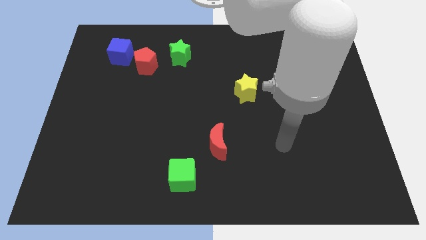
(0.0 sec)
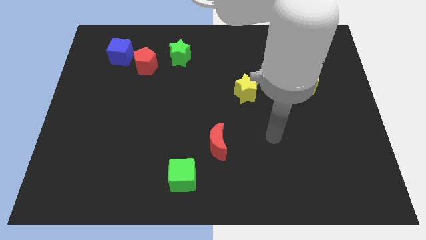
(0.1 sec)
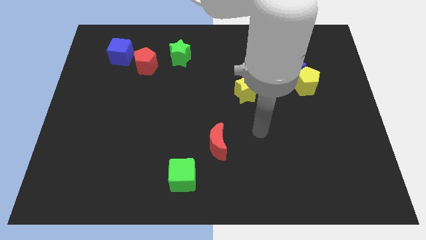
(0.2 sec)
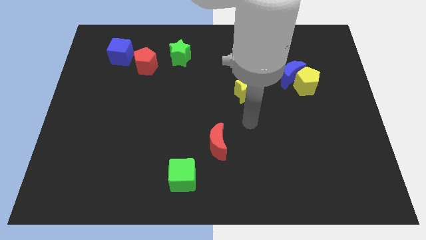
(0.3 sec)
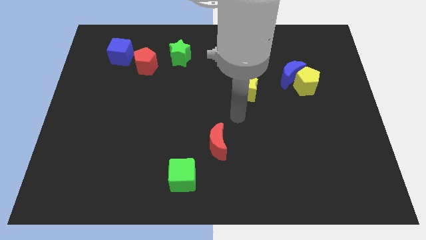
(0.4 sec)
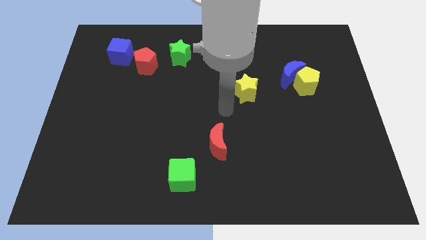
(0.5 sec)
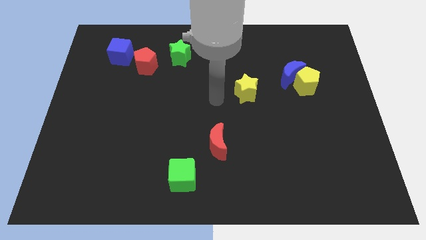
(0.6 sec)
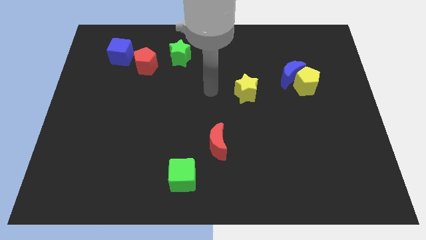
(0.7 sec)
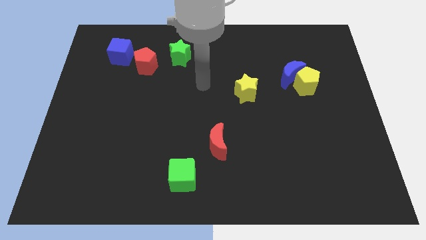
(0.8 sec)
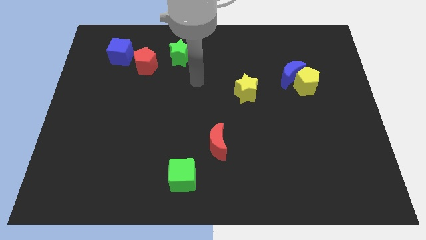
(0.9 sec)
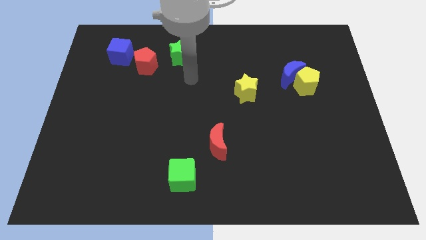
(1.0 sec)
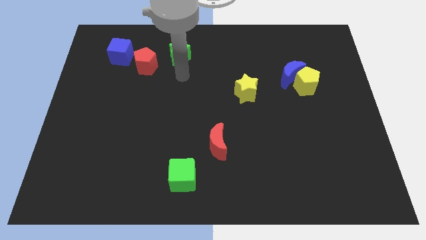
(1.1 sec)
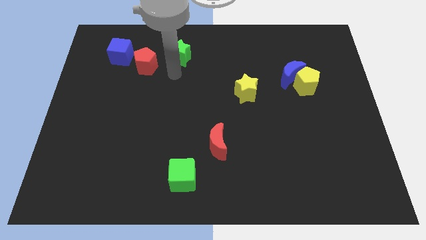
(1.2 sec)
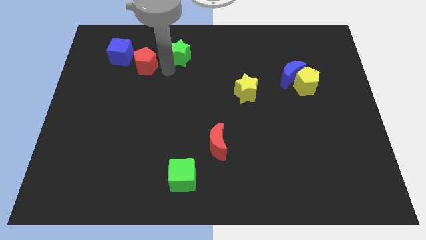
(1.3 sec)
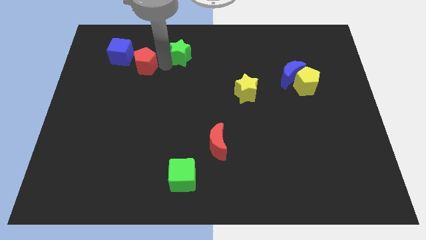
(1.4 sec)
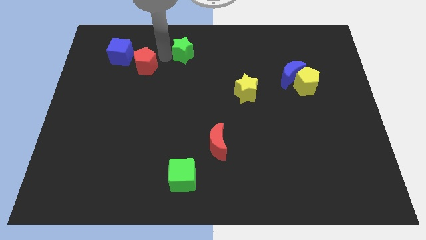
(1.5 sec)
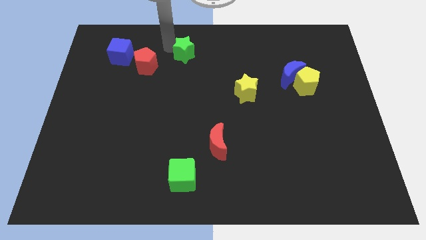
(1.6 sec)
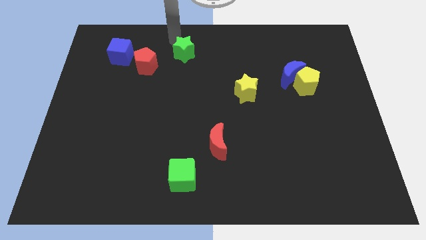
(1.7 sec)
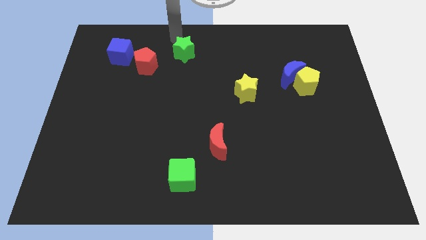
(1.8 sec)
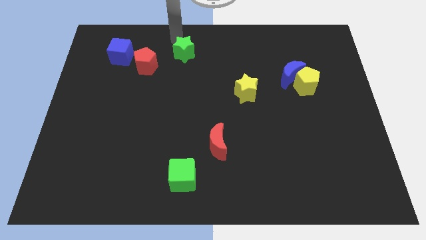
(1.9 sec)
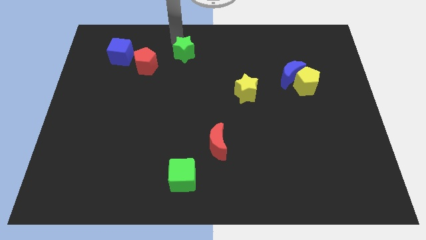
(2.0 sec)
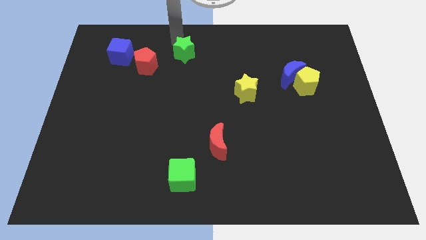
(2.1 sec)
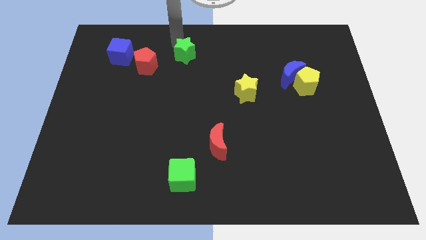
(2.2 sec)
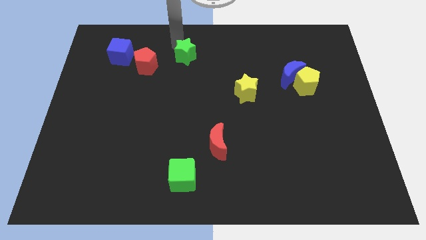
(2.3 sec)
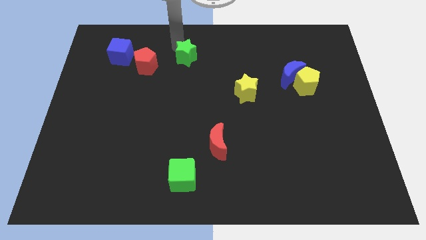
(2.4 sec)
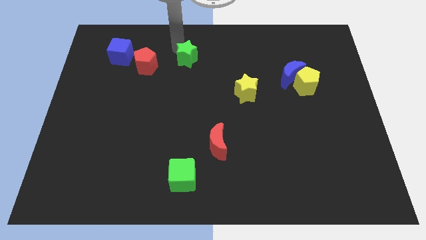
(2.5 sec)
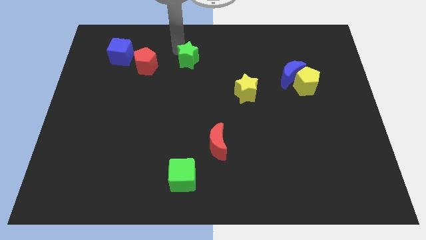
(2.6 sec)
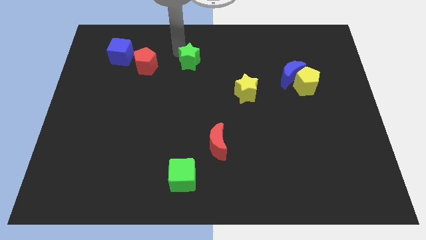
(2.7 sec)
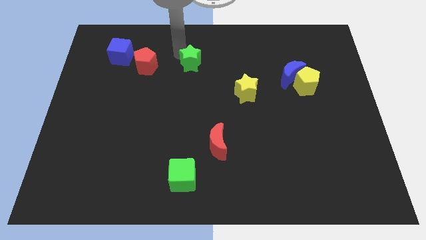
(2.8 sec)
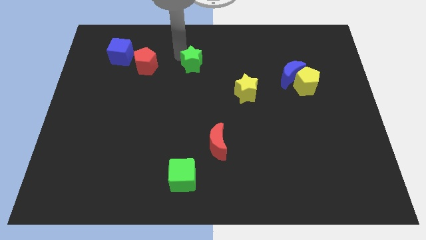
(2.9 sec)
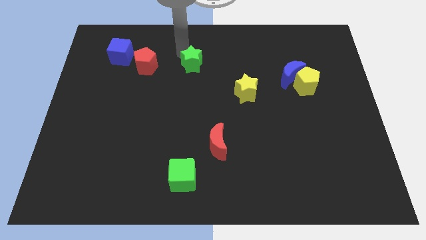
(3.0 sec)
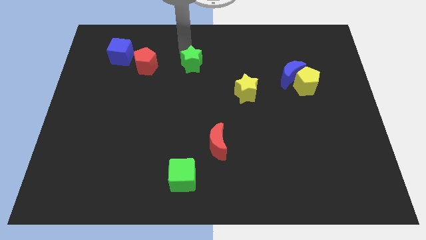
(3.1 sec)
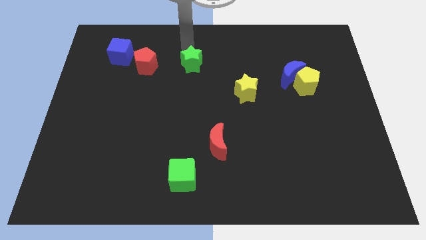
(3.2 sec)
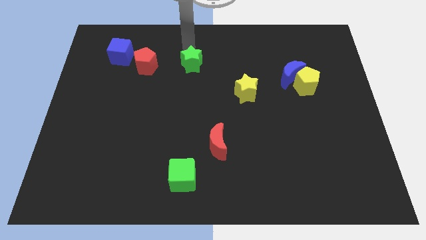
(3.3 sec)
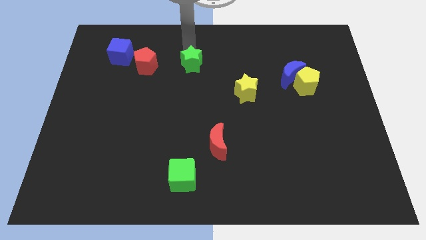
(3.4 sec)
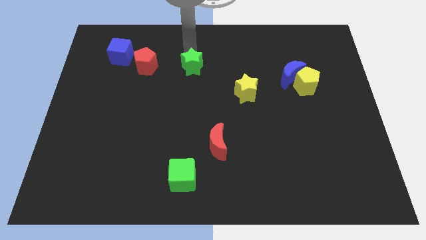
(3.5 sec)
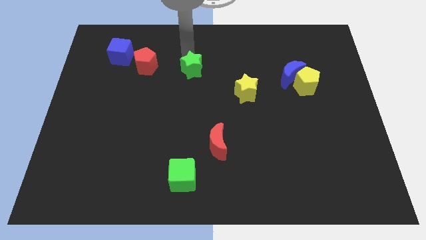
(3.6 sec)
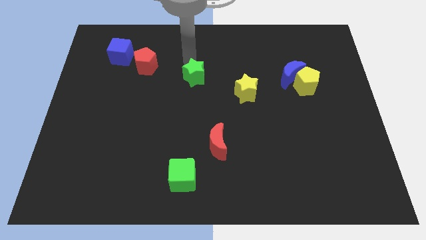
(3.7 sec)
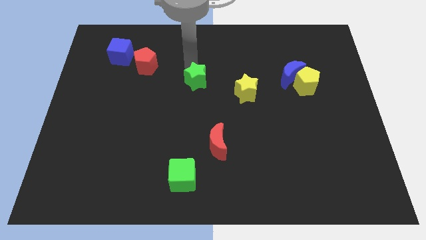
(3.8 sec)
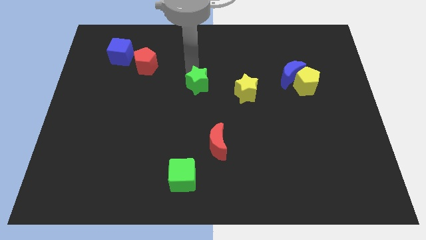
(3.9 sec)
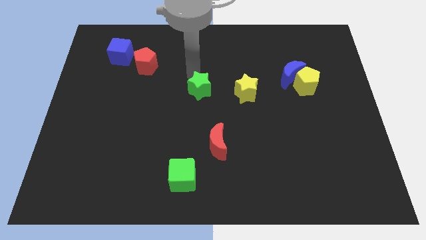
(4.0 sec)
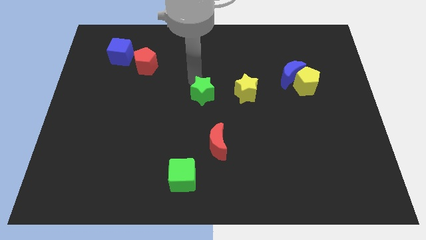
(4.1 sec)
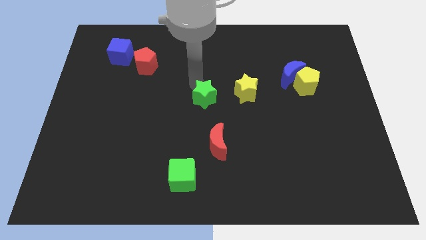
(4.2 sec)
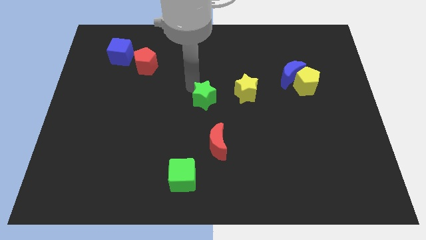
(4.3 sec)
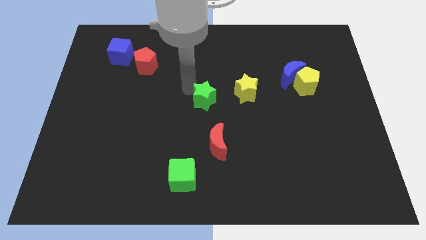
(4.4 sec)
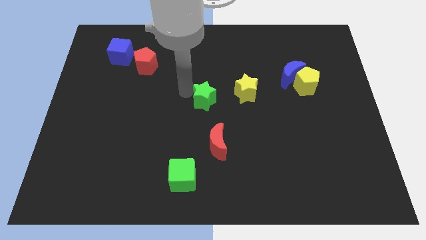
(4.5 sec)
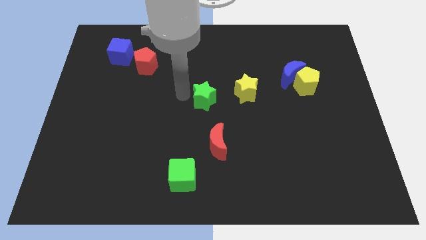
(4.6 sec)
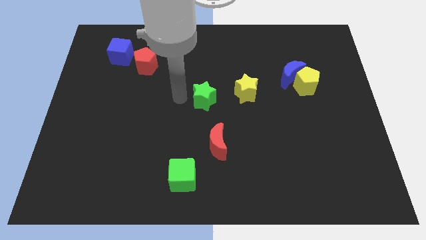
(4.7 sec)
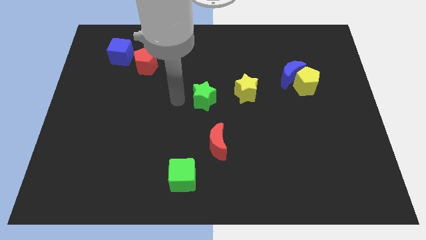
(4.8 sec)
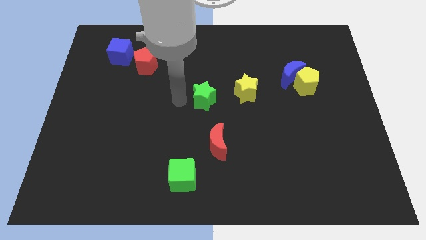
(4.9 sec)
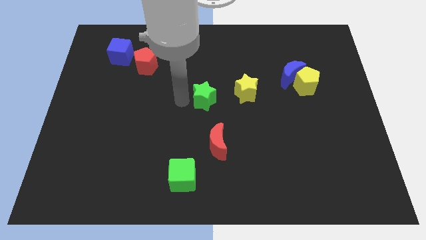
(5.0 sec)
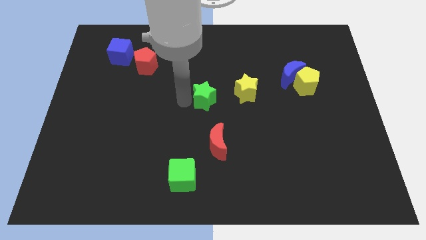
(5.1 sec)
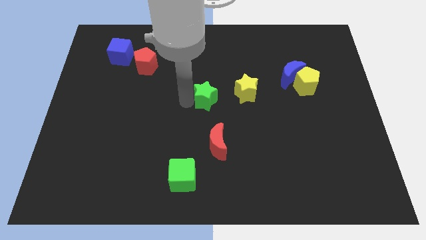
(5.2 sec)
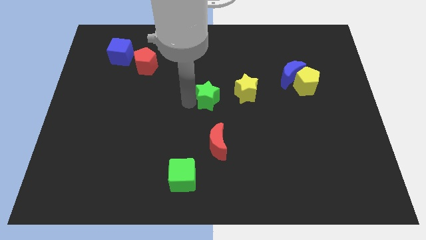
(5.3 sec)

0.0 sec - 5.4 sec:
move the green star to the bottom left side of the yellow star

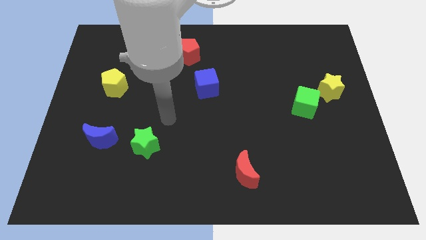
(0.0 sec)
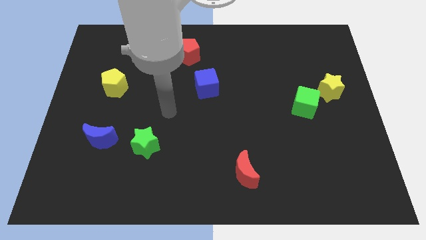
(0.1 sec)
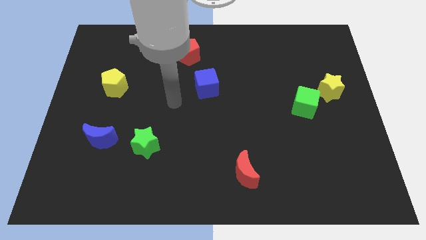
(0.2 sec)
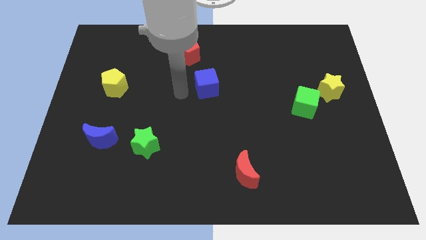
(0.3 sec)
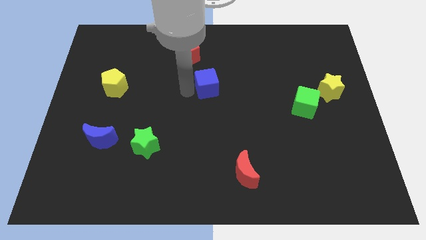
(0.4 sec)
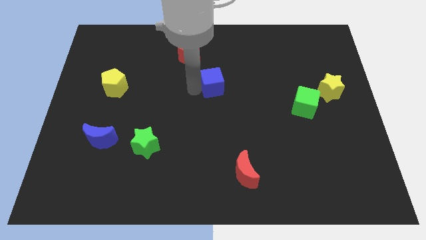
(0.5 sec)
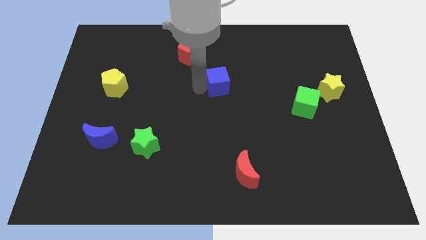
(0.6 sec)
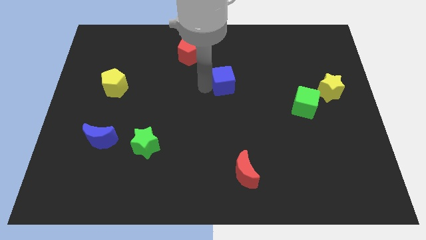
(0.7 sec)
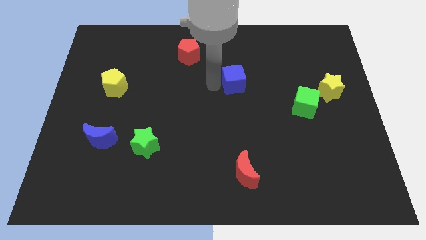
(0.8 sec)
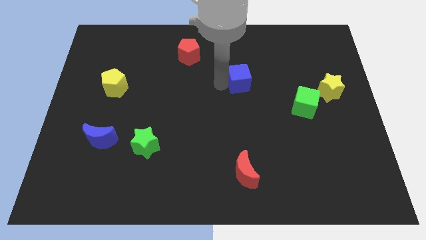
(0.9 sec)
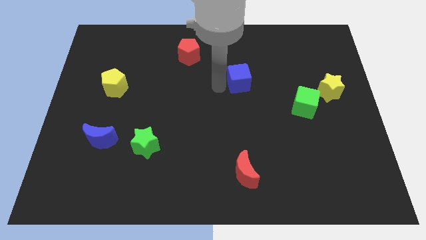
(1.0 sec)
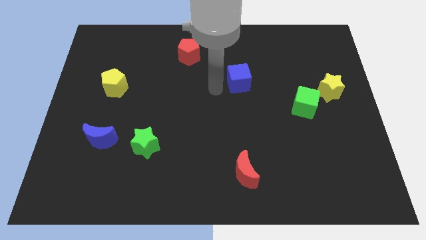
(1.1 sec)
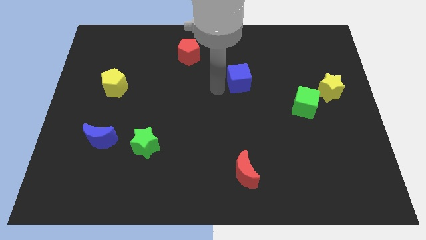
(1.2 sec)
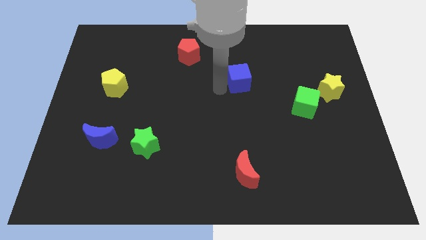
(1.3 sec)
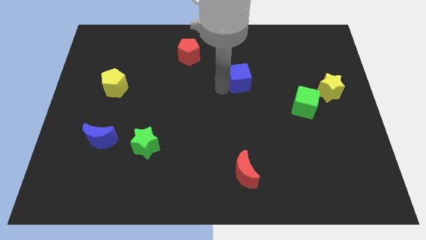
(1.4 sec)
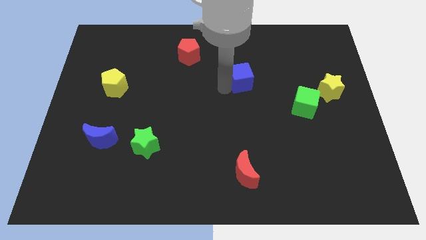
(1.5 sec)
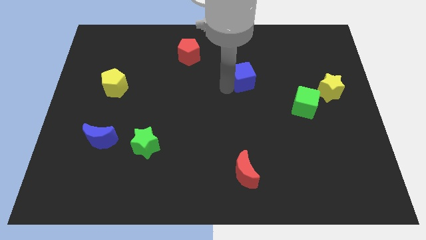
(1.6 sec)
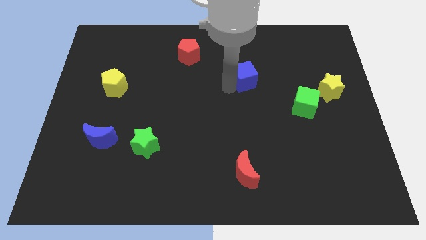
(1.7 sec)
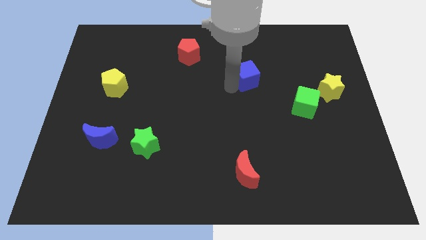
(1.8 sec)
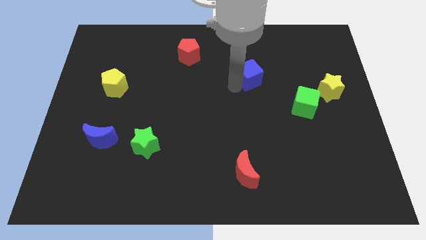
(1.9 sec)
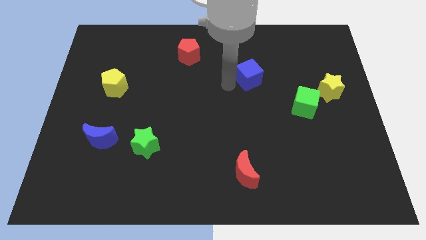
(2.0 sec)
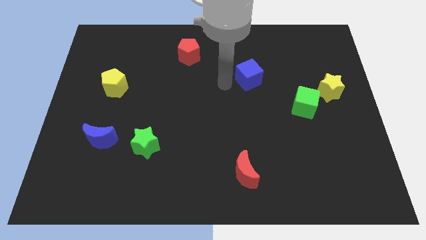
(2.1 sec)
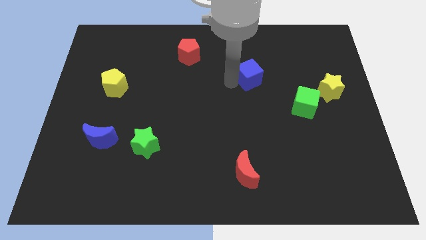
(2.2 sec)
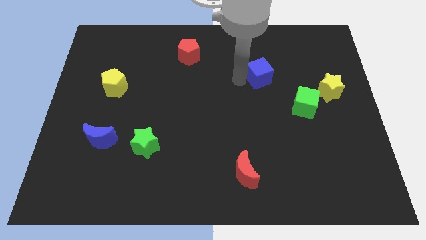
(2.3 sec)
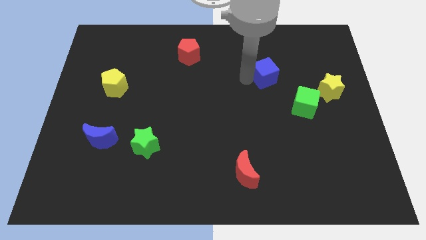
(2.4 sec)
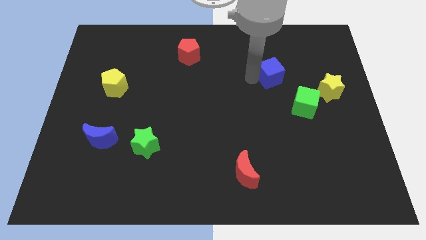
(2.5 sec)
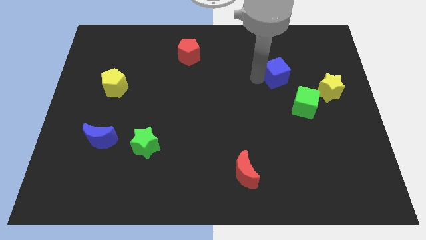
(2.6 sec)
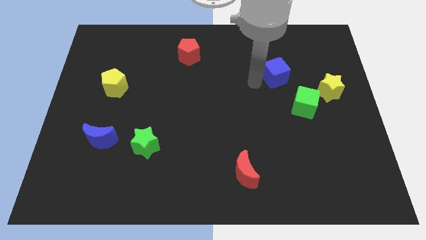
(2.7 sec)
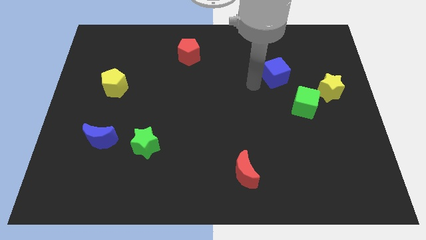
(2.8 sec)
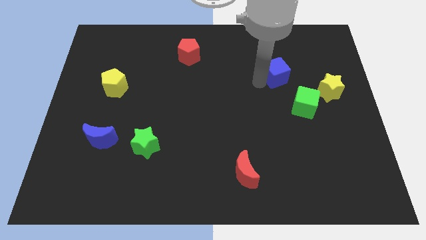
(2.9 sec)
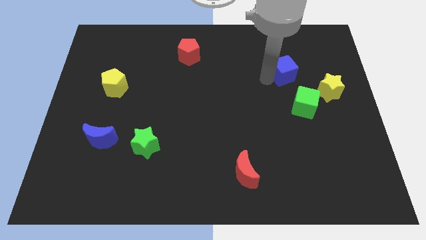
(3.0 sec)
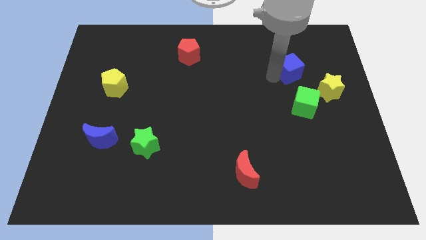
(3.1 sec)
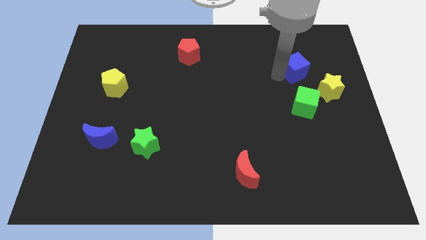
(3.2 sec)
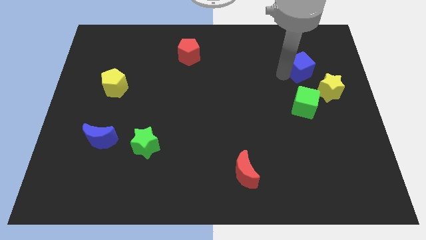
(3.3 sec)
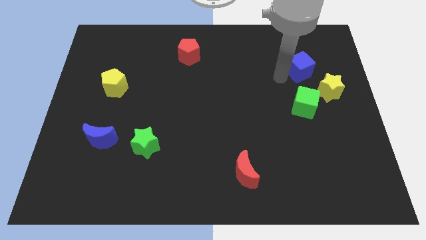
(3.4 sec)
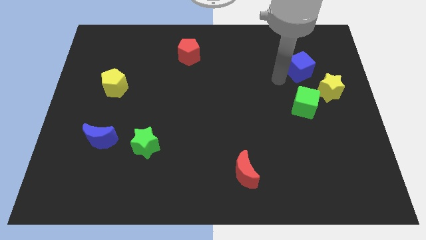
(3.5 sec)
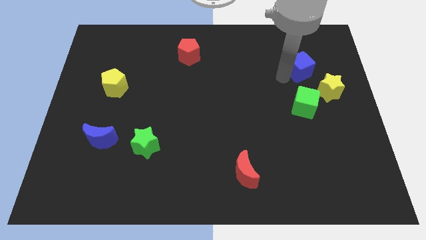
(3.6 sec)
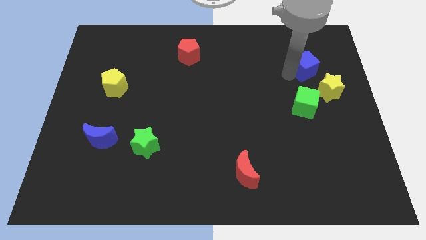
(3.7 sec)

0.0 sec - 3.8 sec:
push the blue cube to the top side of the yellow star
